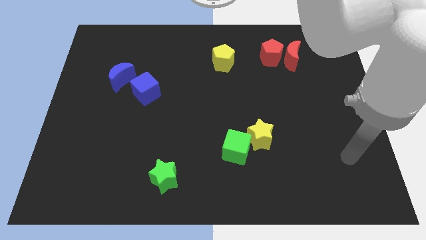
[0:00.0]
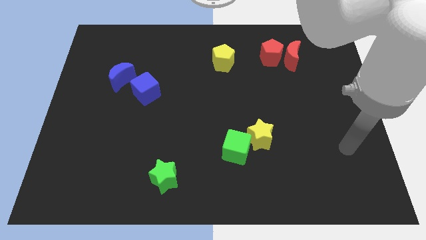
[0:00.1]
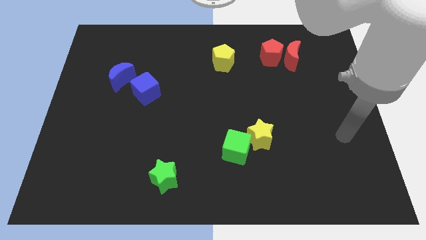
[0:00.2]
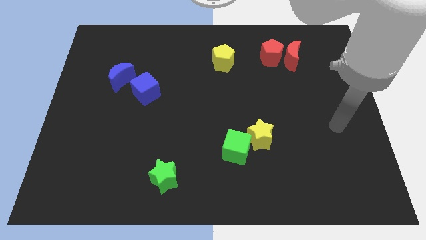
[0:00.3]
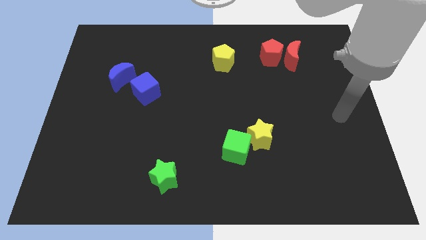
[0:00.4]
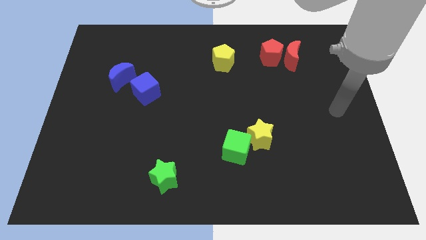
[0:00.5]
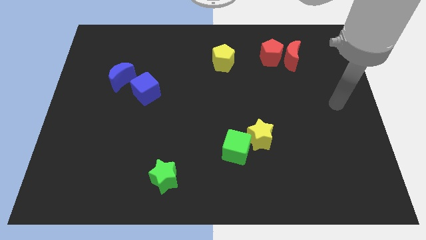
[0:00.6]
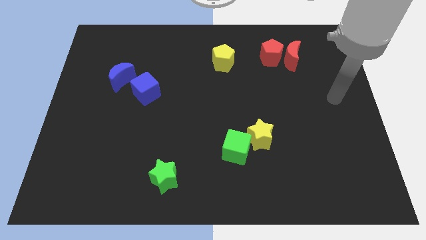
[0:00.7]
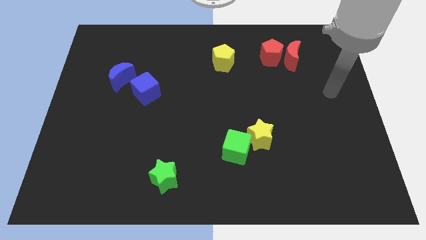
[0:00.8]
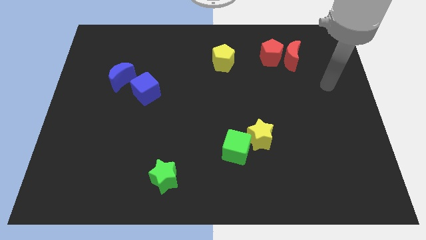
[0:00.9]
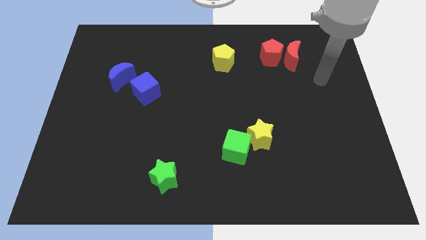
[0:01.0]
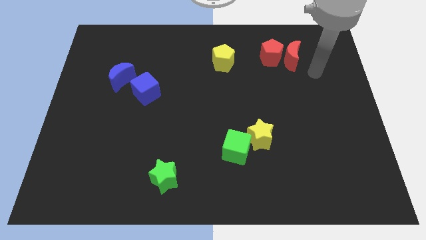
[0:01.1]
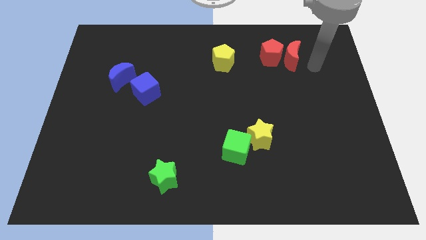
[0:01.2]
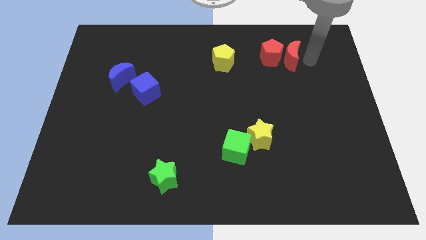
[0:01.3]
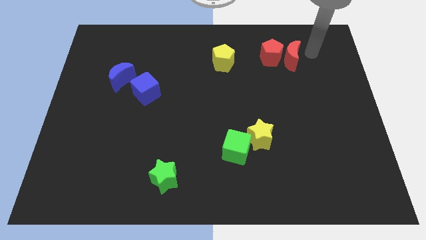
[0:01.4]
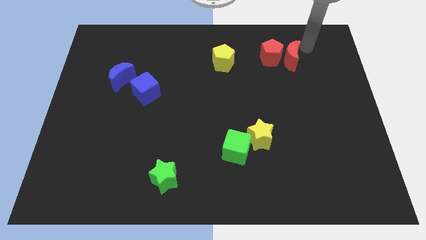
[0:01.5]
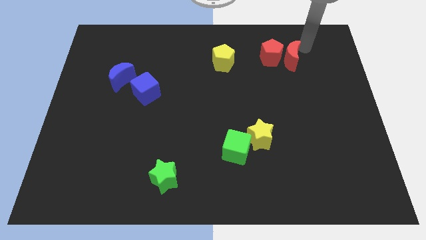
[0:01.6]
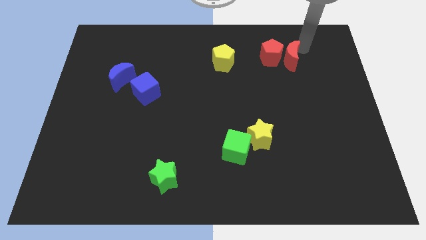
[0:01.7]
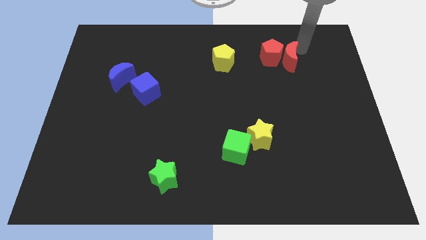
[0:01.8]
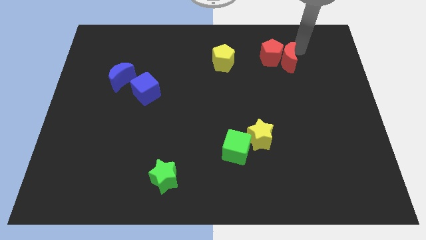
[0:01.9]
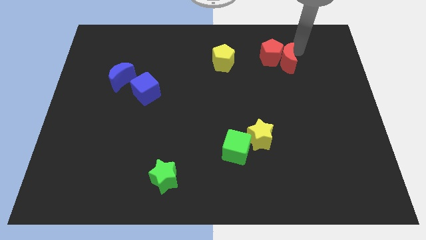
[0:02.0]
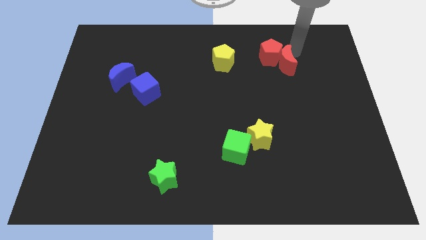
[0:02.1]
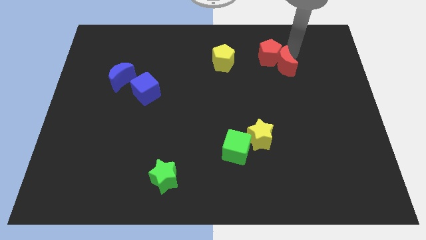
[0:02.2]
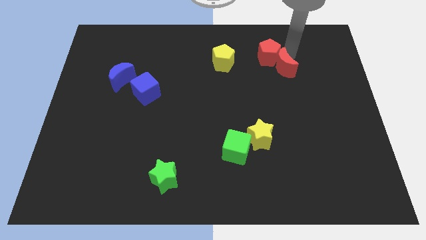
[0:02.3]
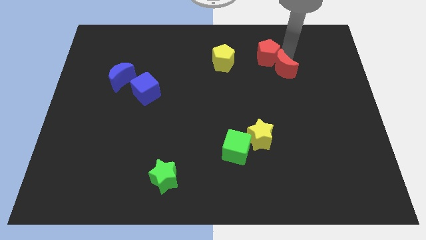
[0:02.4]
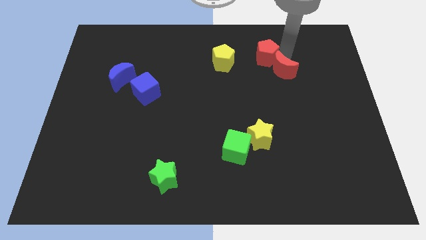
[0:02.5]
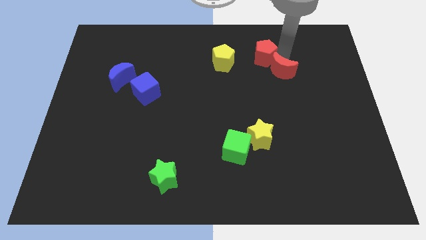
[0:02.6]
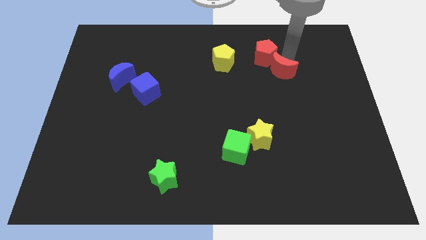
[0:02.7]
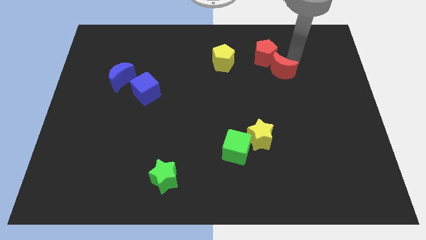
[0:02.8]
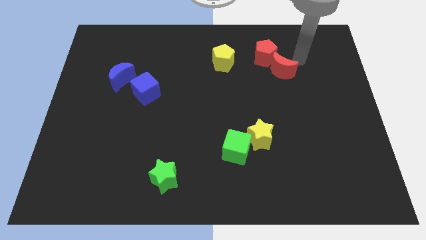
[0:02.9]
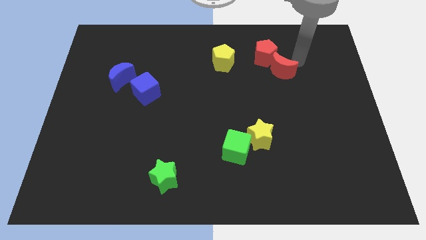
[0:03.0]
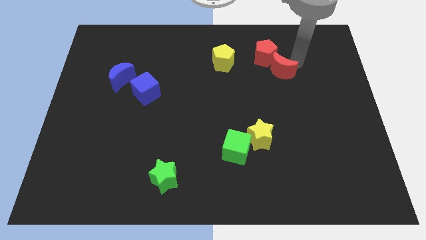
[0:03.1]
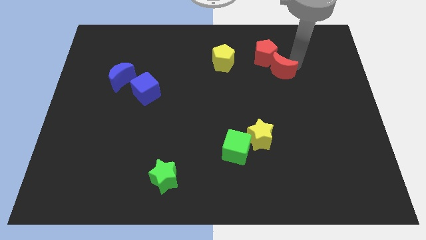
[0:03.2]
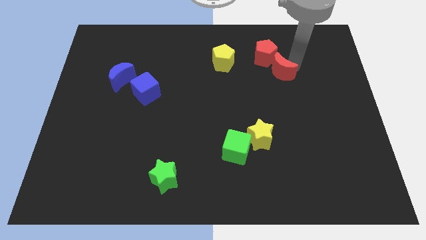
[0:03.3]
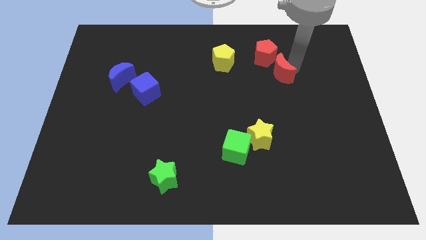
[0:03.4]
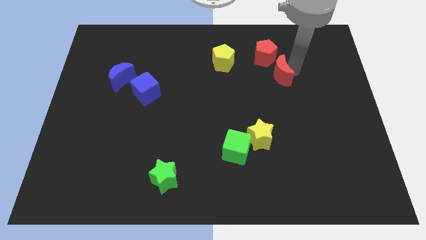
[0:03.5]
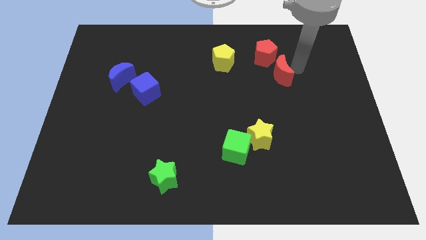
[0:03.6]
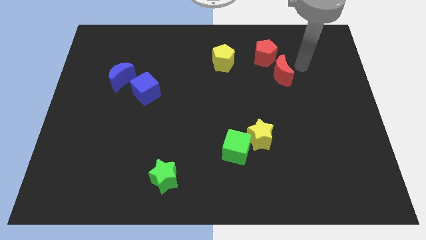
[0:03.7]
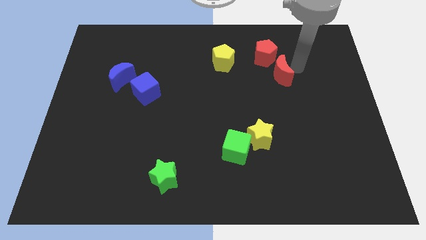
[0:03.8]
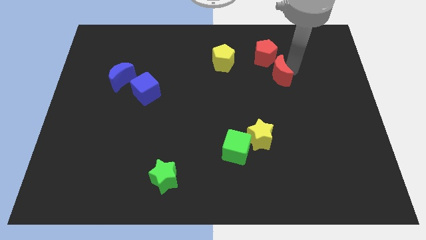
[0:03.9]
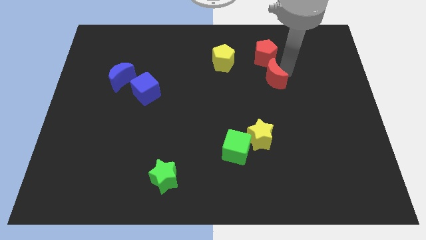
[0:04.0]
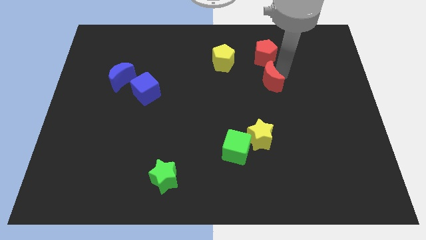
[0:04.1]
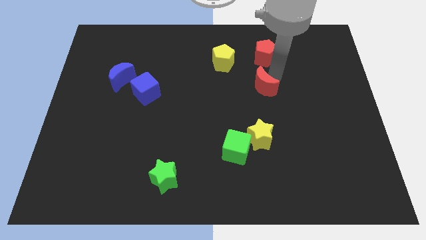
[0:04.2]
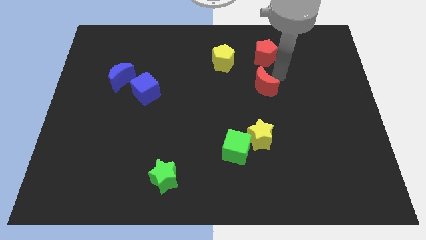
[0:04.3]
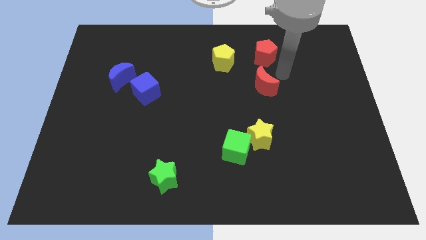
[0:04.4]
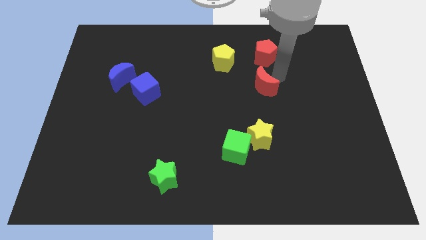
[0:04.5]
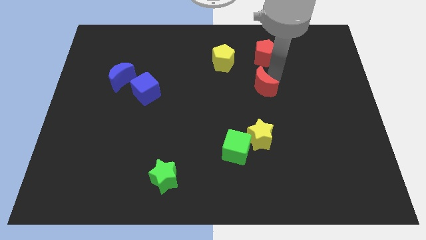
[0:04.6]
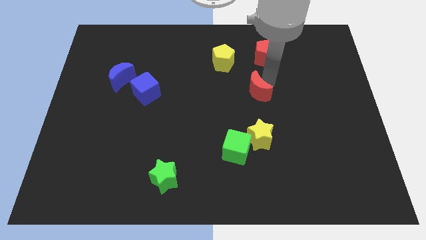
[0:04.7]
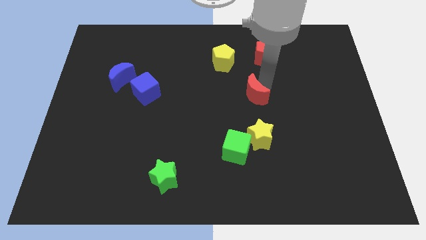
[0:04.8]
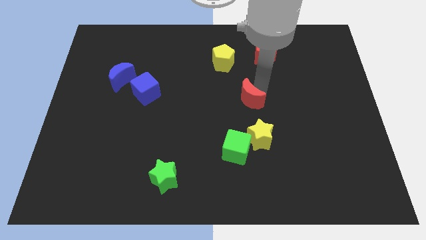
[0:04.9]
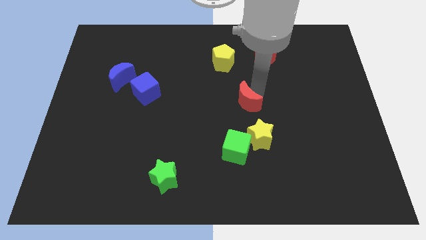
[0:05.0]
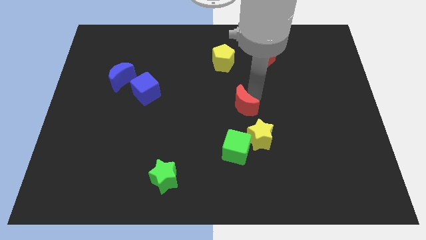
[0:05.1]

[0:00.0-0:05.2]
move the red moon down and to the left diagonally

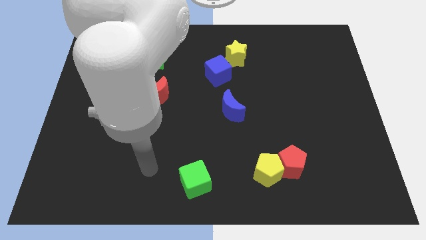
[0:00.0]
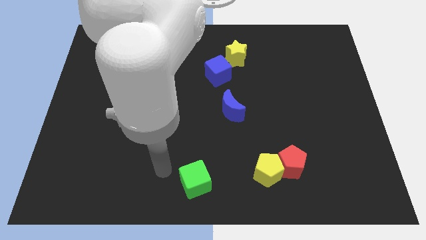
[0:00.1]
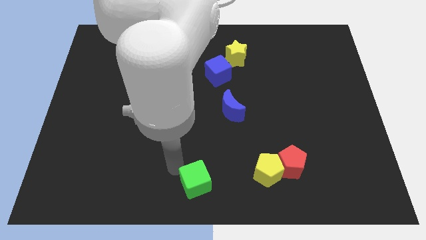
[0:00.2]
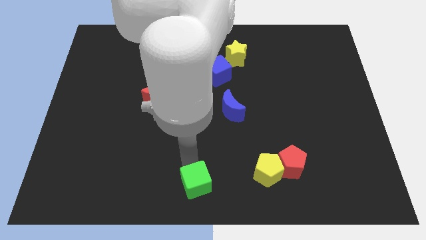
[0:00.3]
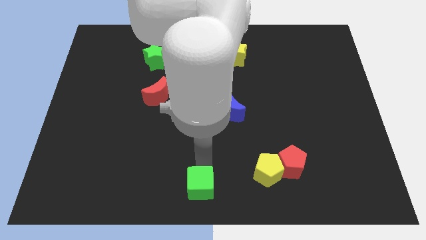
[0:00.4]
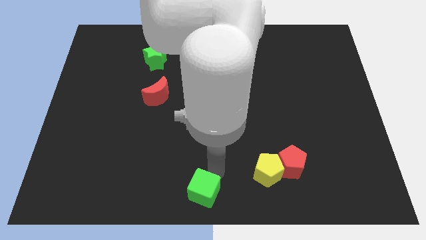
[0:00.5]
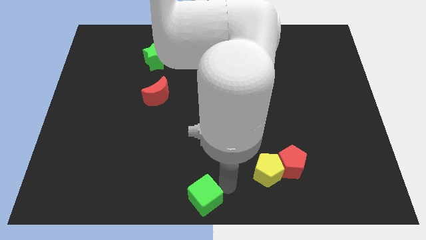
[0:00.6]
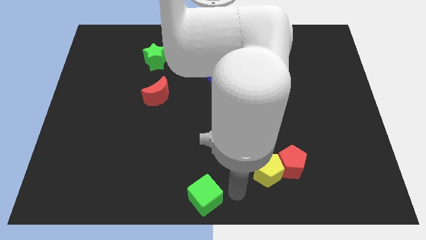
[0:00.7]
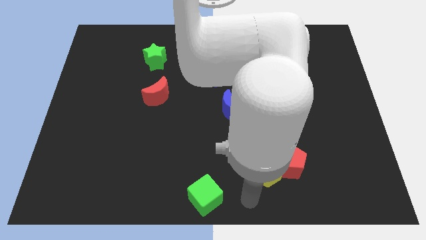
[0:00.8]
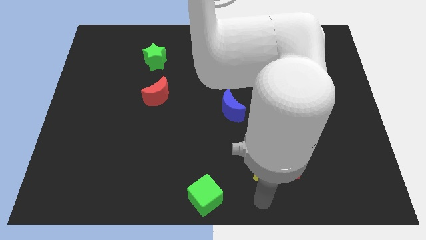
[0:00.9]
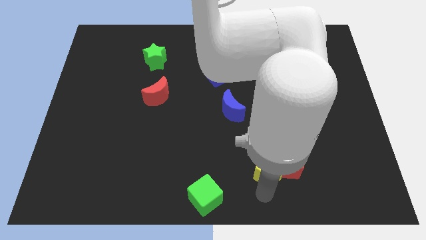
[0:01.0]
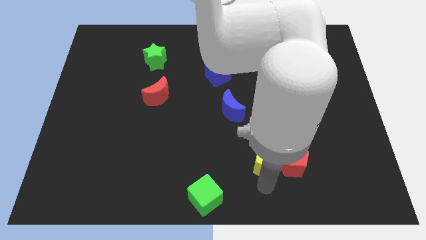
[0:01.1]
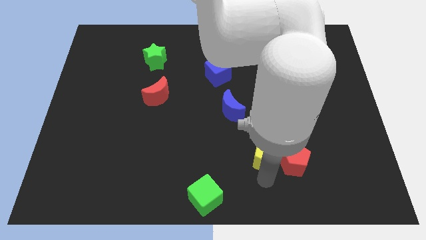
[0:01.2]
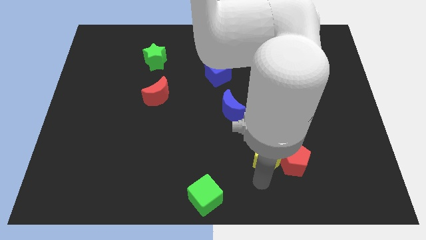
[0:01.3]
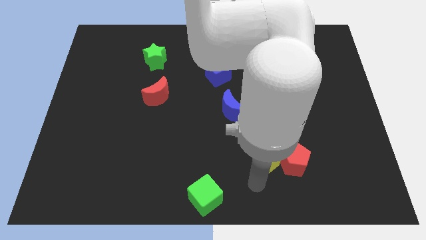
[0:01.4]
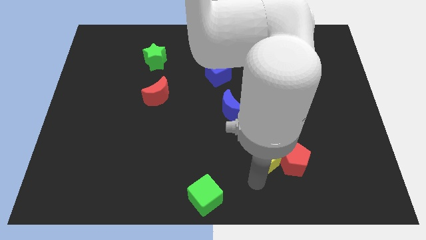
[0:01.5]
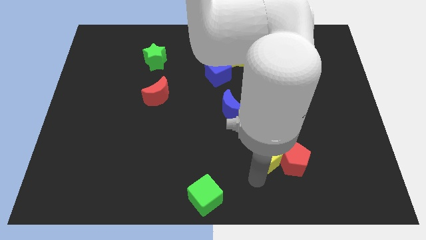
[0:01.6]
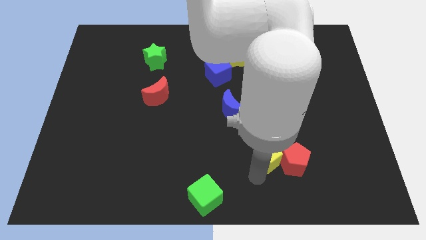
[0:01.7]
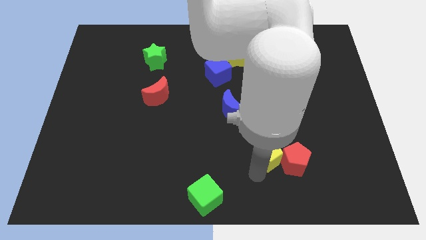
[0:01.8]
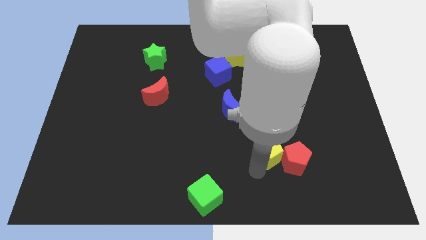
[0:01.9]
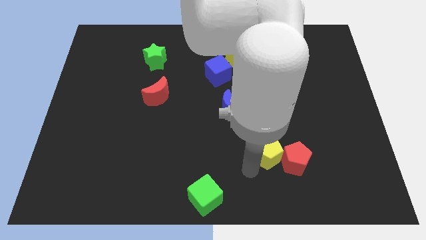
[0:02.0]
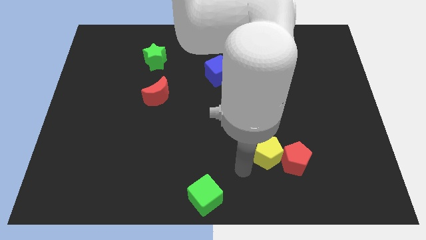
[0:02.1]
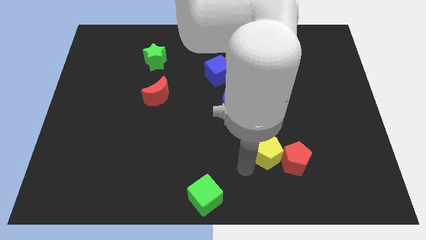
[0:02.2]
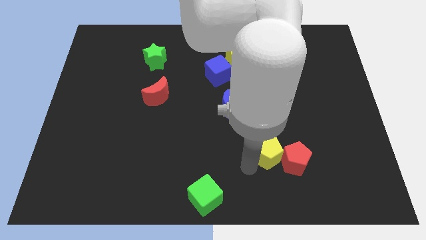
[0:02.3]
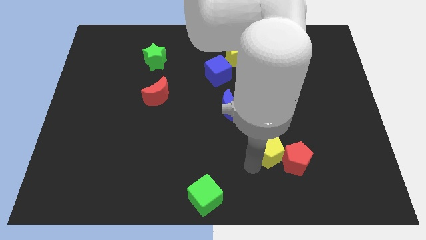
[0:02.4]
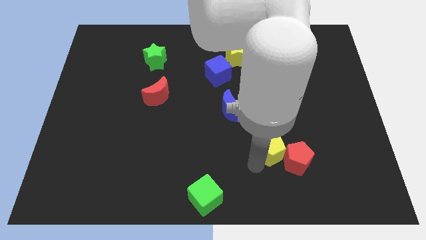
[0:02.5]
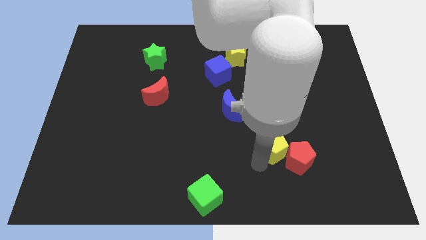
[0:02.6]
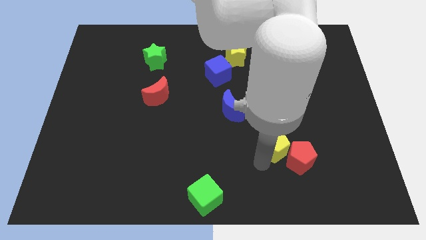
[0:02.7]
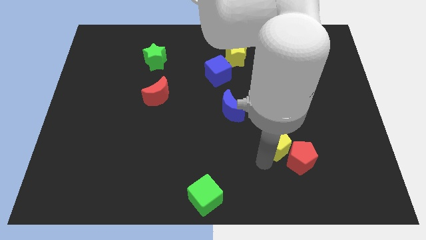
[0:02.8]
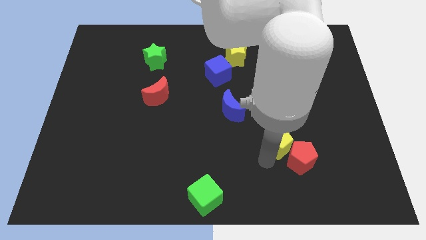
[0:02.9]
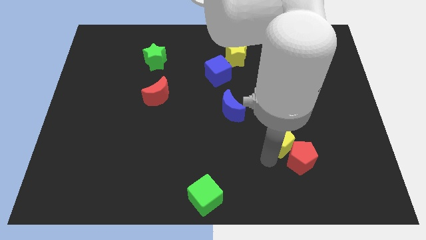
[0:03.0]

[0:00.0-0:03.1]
push the yellow pentagon upwards and to the right a little
